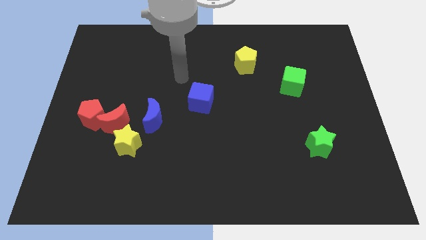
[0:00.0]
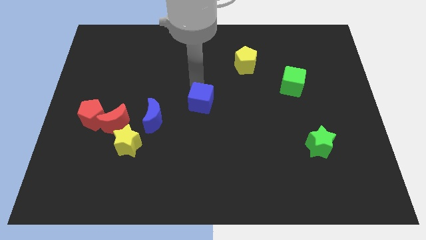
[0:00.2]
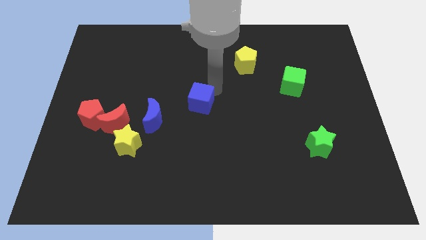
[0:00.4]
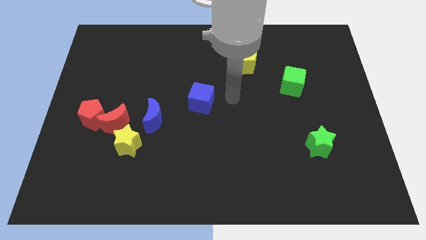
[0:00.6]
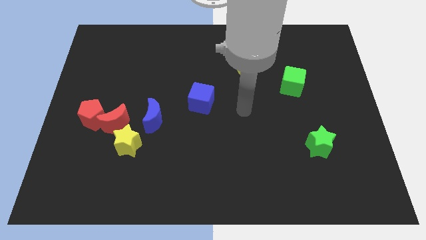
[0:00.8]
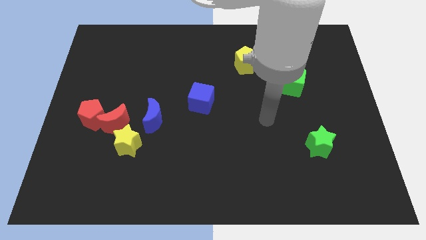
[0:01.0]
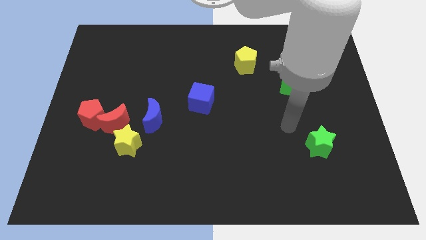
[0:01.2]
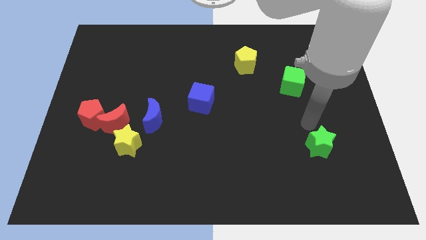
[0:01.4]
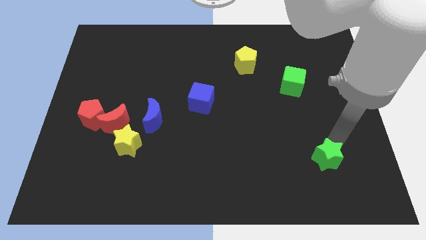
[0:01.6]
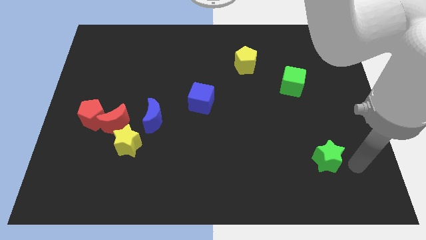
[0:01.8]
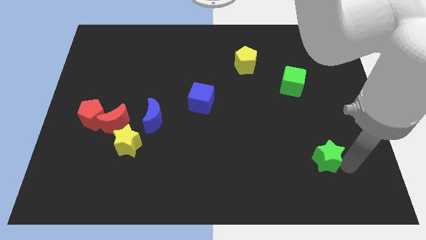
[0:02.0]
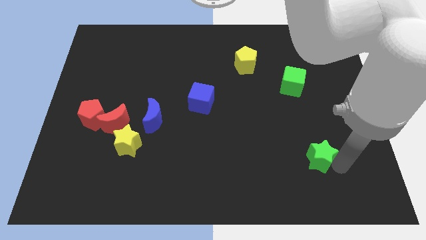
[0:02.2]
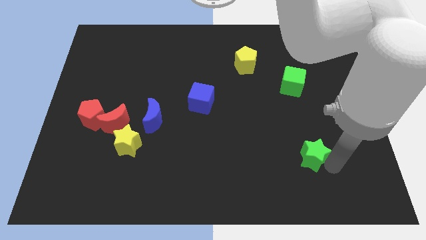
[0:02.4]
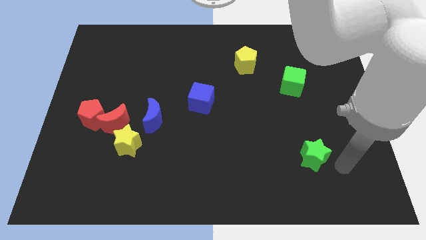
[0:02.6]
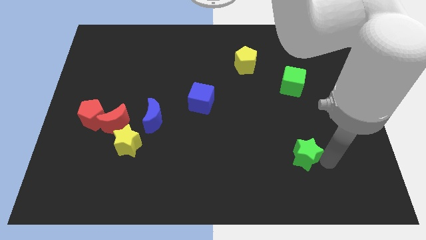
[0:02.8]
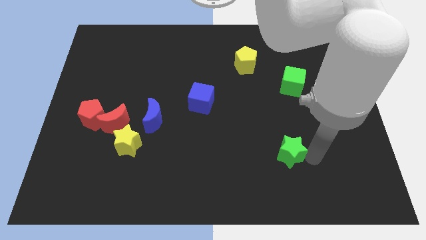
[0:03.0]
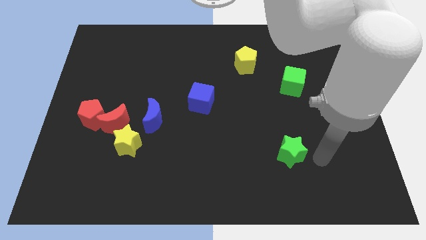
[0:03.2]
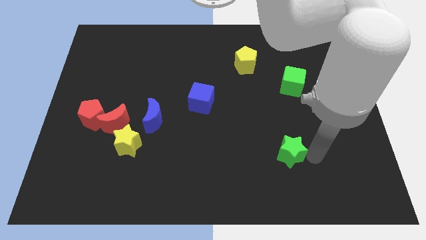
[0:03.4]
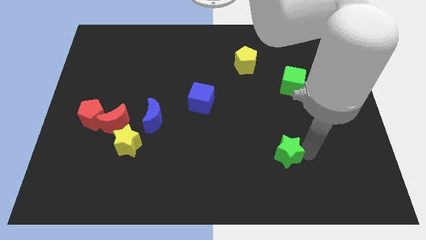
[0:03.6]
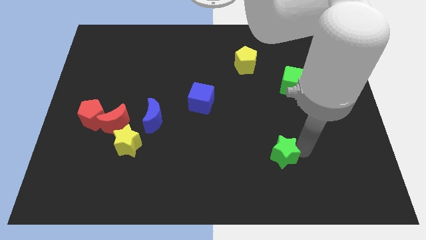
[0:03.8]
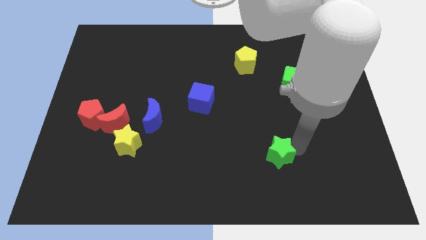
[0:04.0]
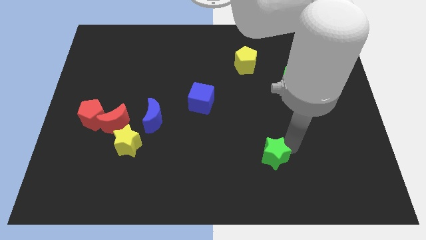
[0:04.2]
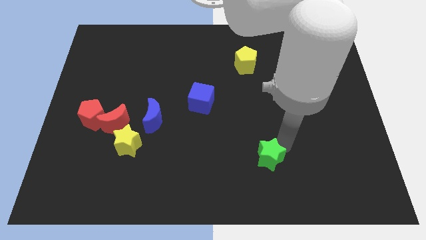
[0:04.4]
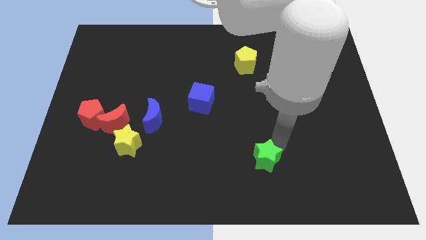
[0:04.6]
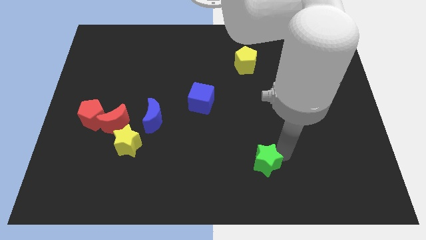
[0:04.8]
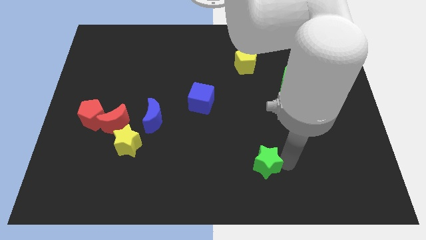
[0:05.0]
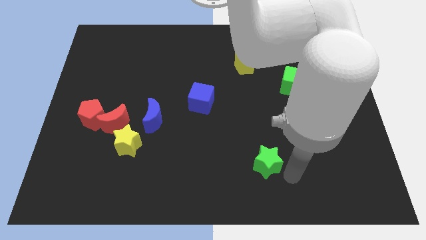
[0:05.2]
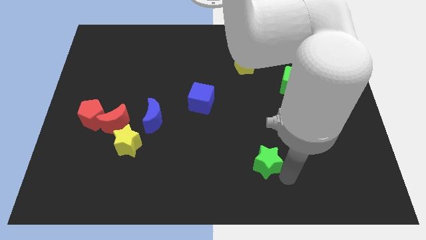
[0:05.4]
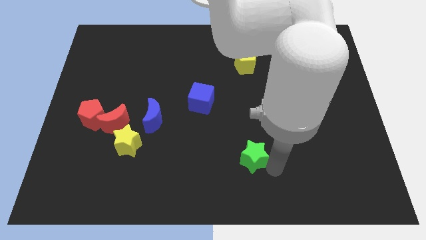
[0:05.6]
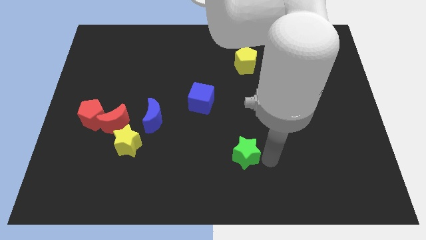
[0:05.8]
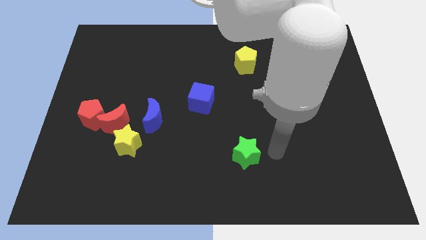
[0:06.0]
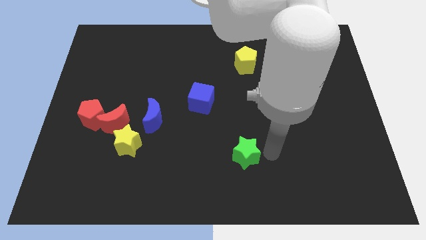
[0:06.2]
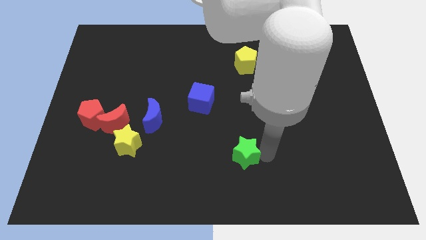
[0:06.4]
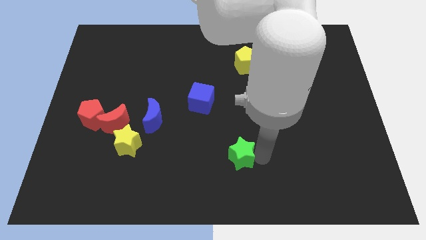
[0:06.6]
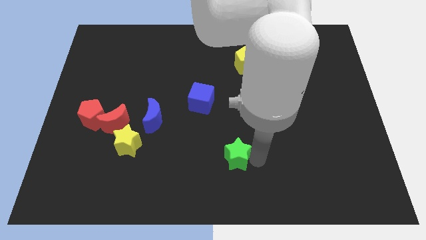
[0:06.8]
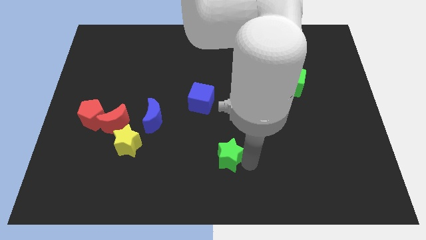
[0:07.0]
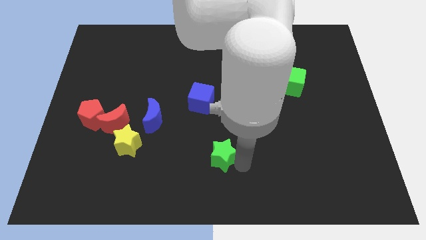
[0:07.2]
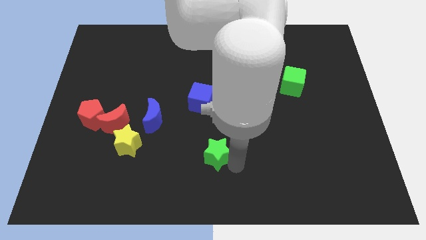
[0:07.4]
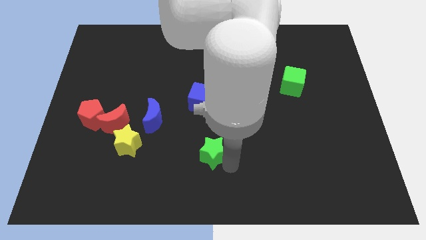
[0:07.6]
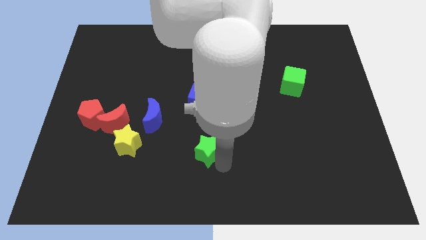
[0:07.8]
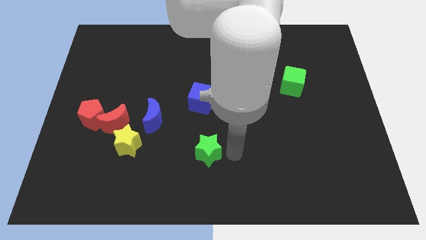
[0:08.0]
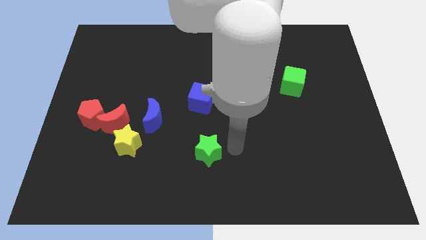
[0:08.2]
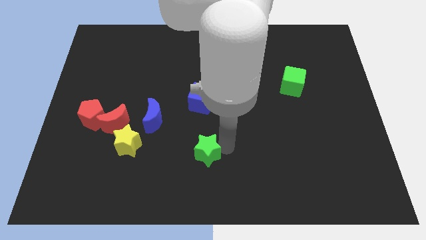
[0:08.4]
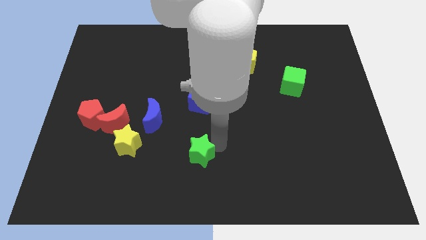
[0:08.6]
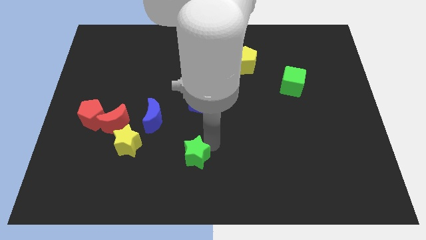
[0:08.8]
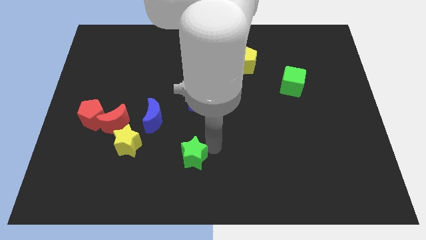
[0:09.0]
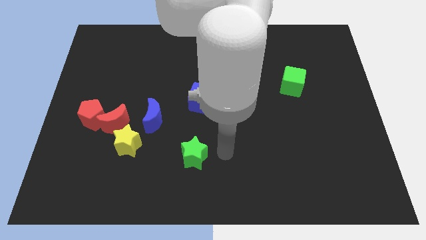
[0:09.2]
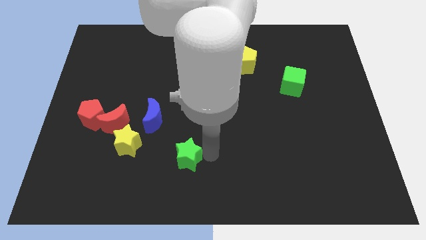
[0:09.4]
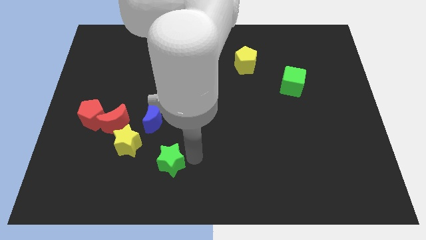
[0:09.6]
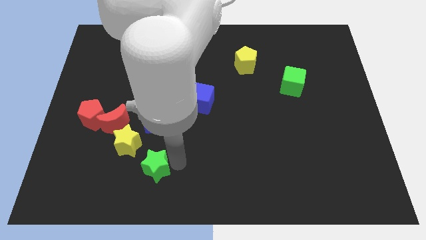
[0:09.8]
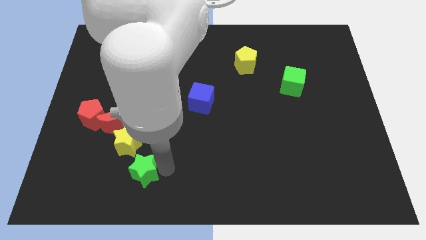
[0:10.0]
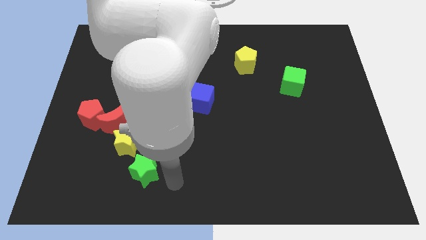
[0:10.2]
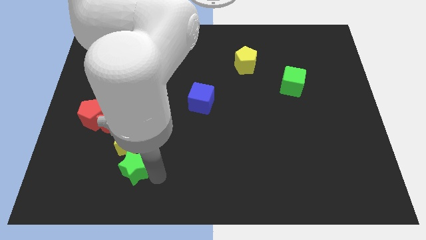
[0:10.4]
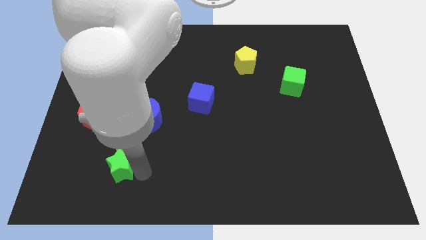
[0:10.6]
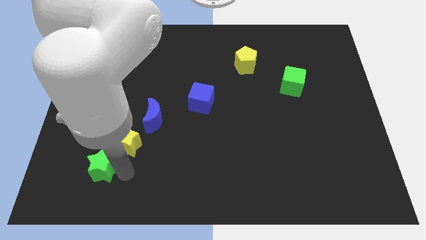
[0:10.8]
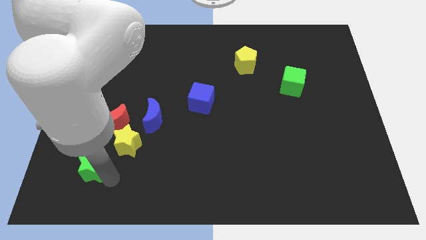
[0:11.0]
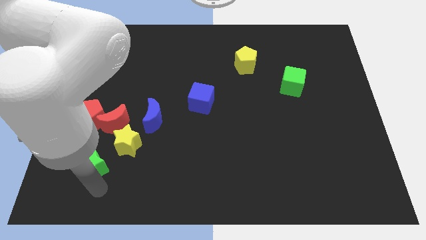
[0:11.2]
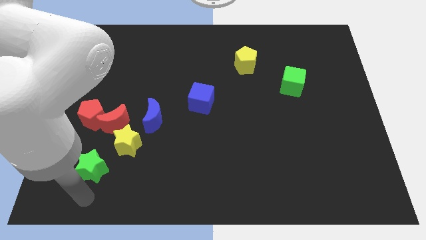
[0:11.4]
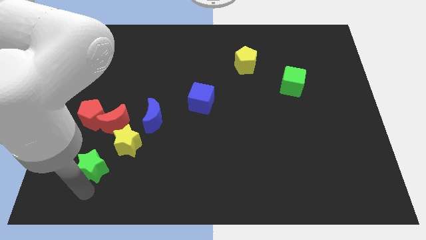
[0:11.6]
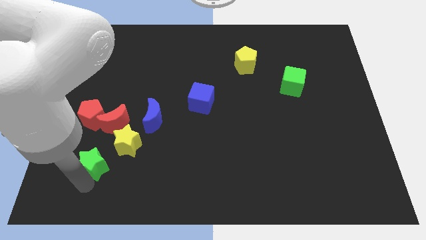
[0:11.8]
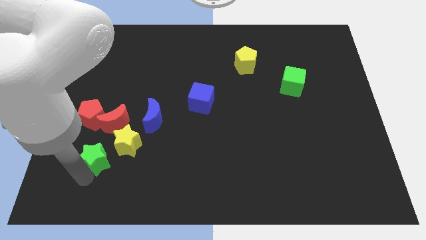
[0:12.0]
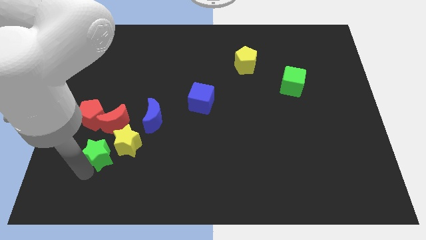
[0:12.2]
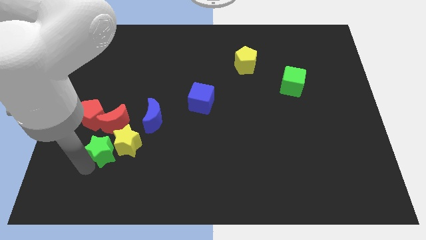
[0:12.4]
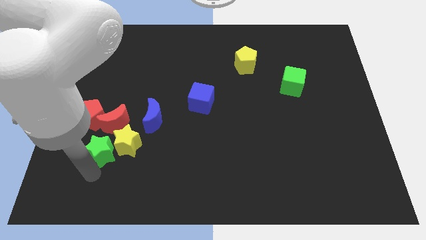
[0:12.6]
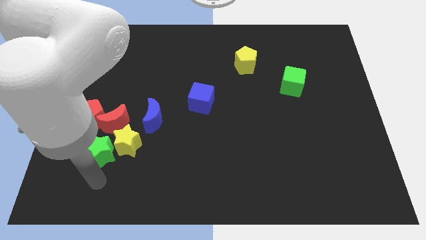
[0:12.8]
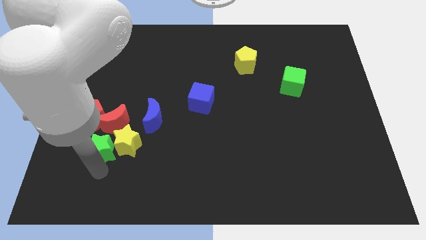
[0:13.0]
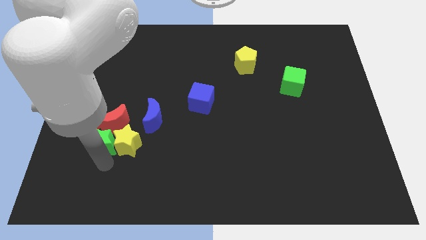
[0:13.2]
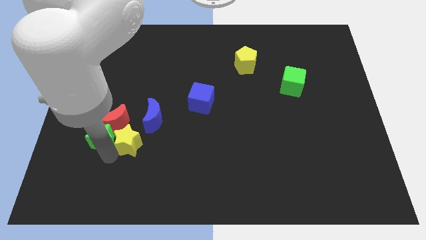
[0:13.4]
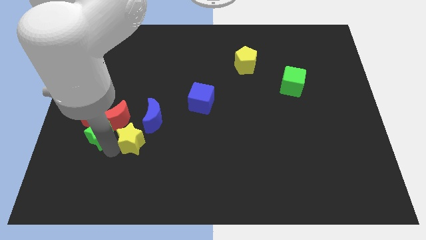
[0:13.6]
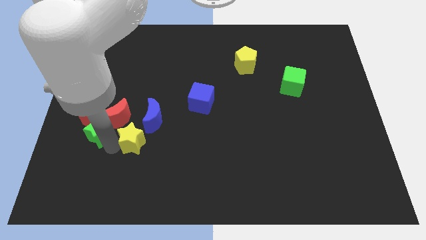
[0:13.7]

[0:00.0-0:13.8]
move the green star close to the red pentagon
